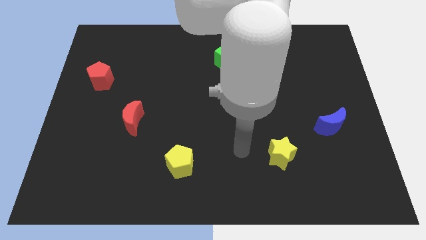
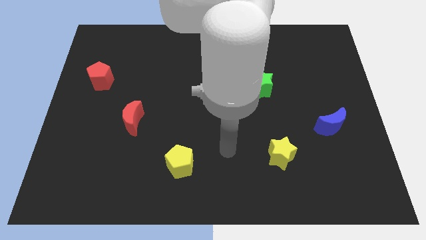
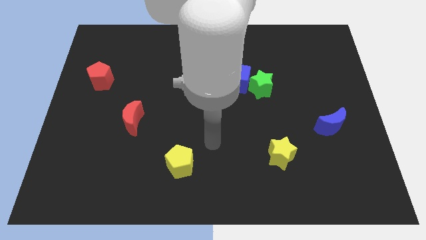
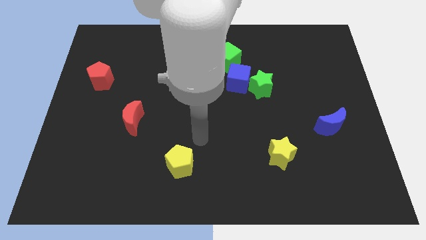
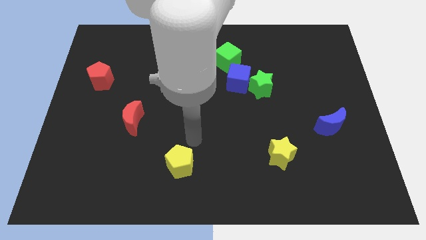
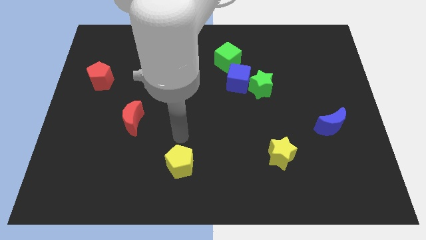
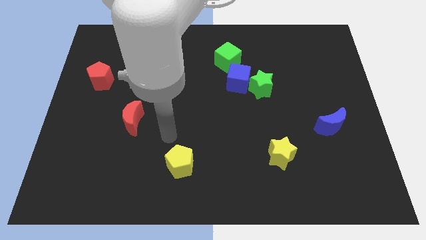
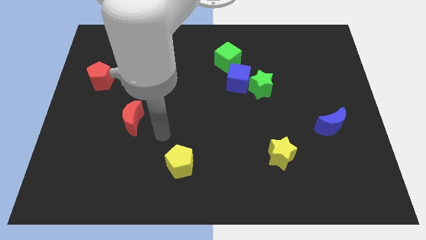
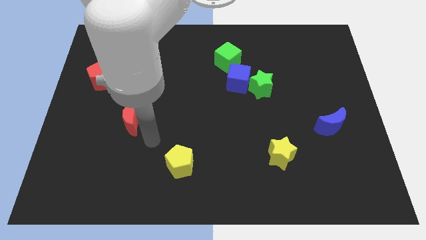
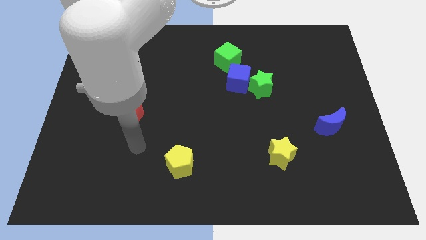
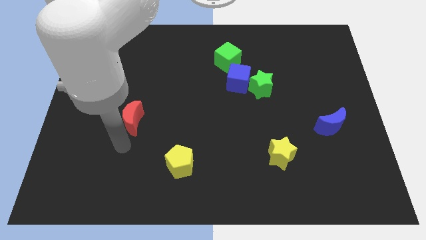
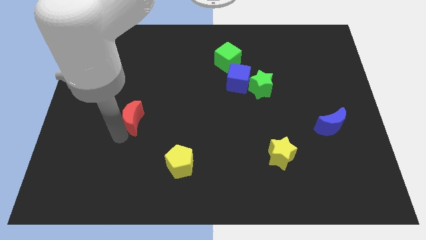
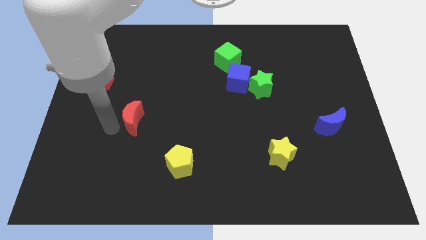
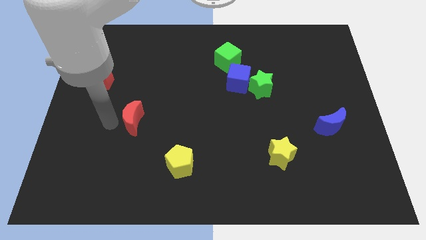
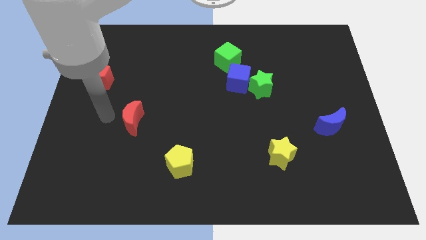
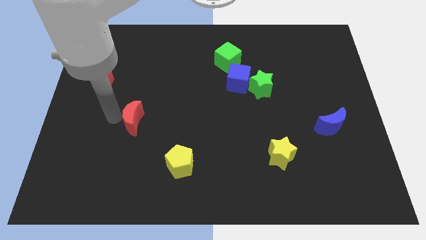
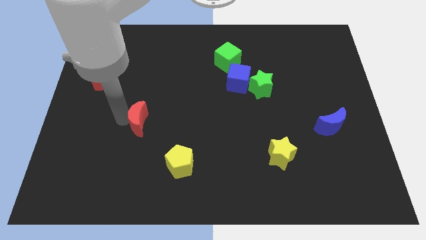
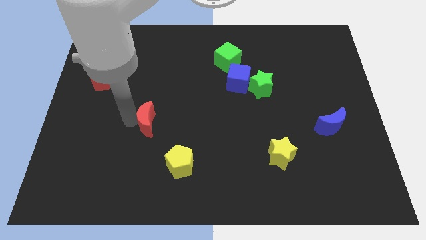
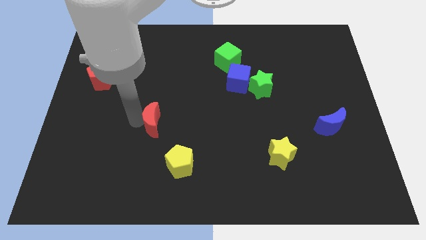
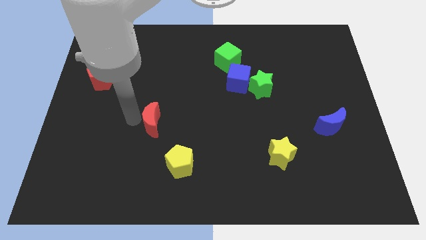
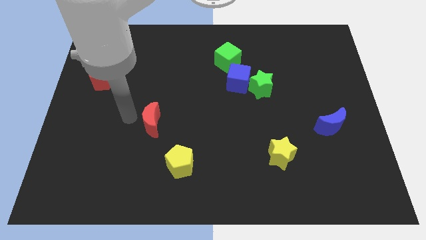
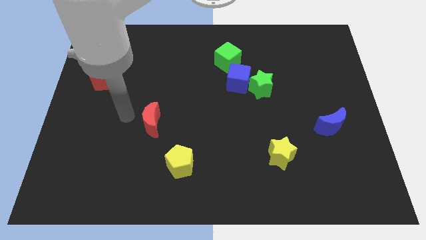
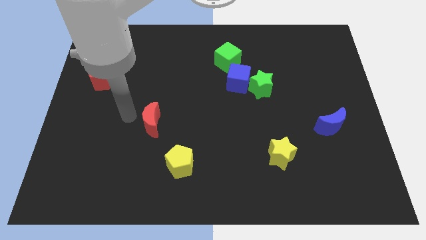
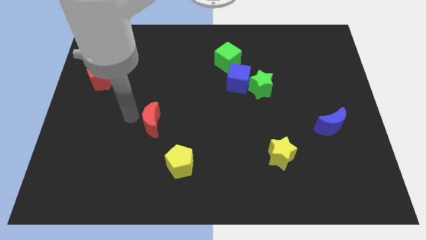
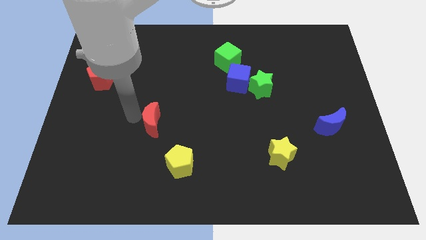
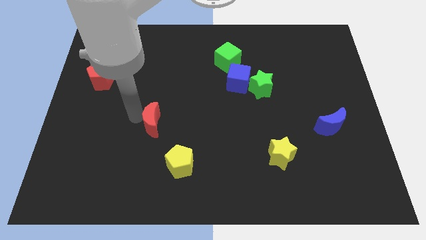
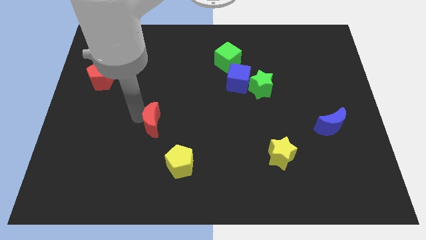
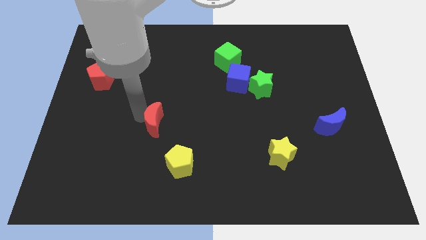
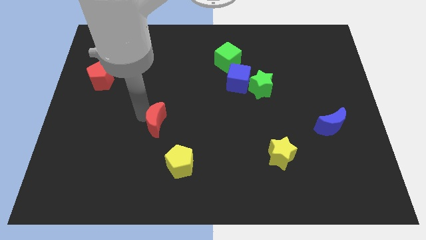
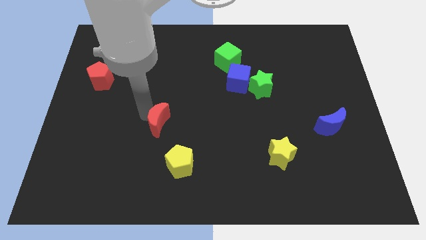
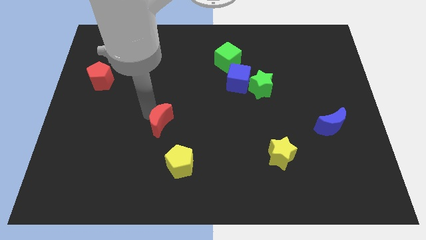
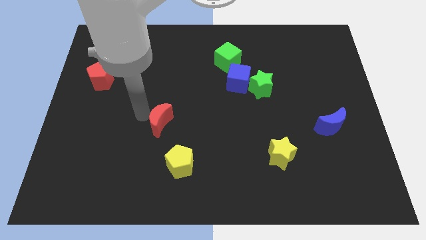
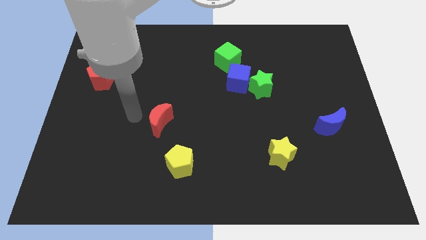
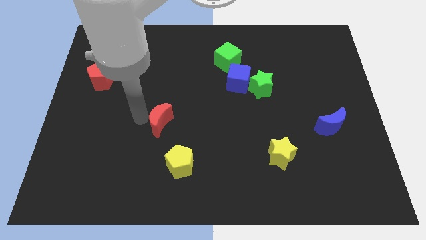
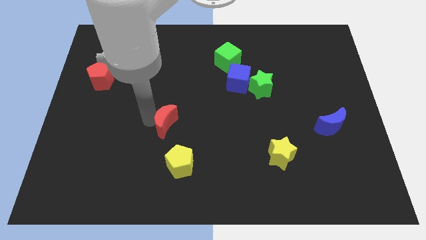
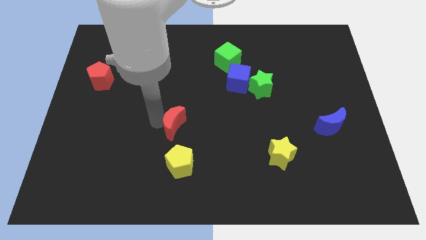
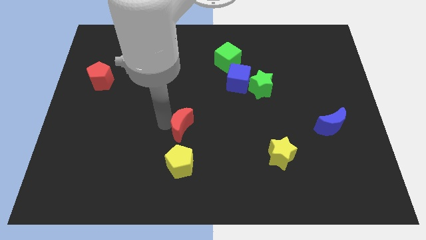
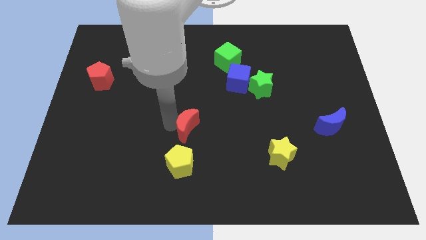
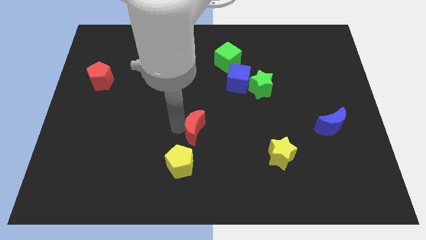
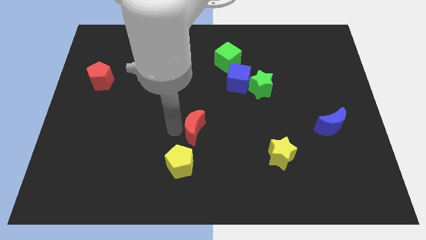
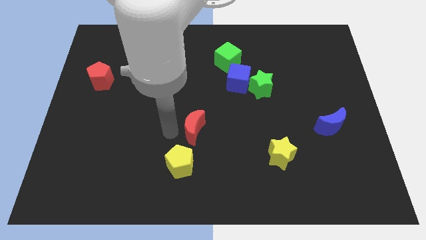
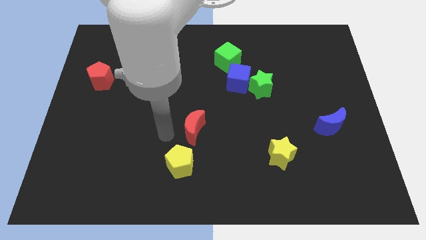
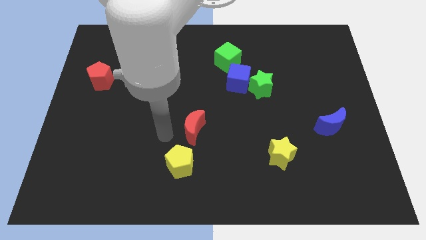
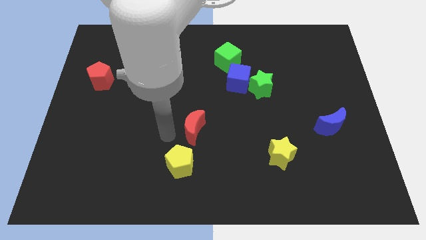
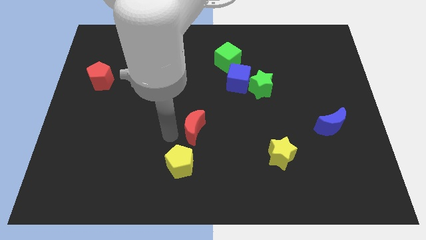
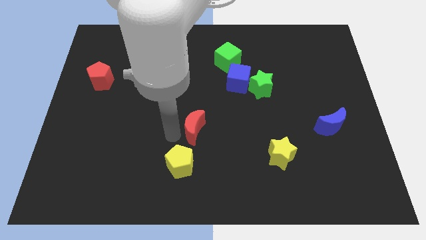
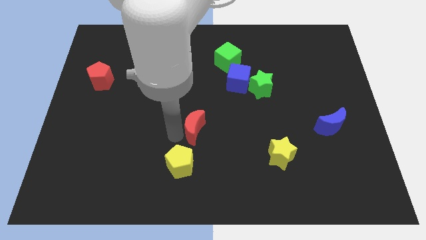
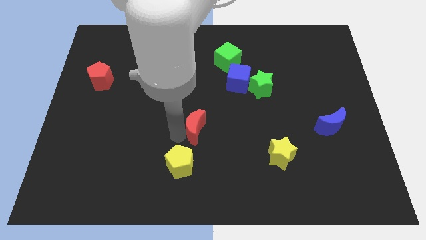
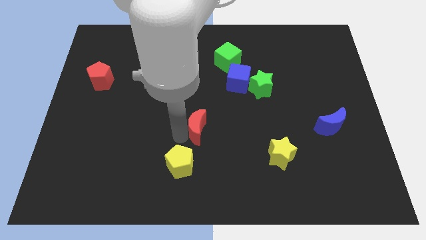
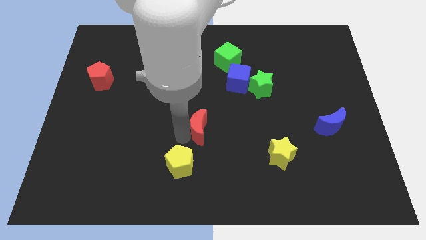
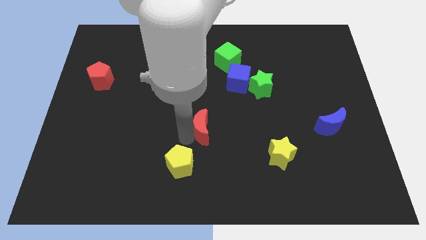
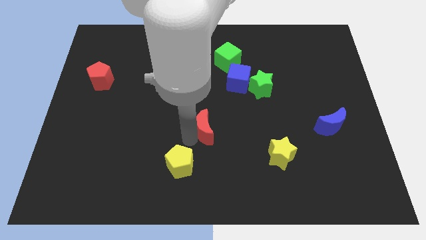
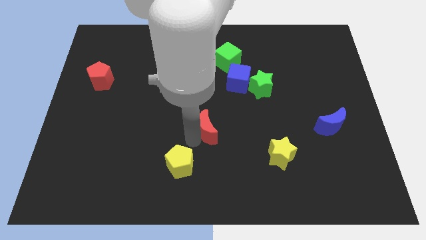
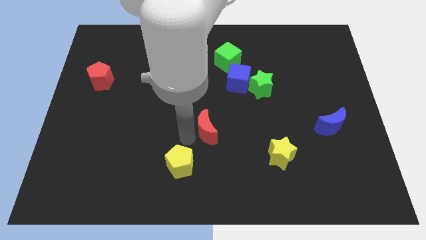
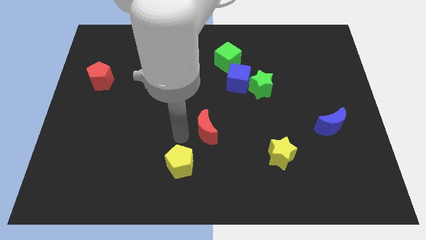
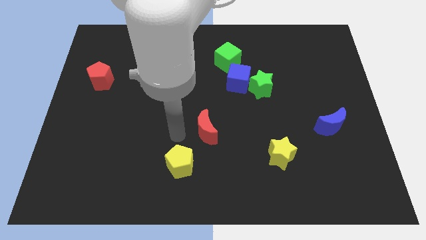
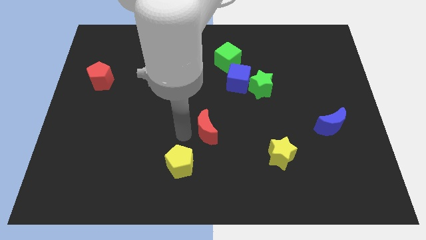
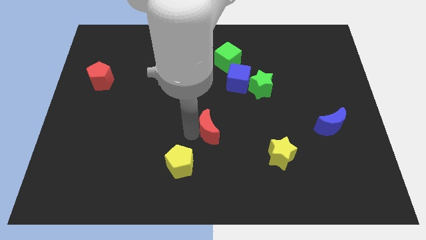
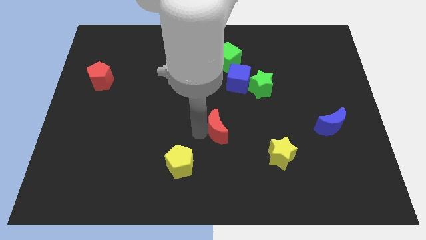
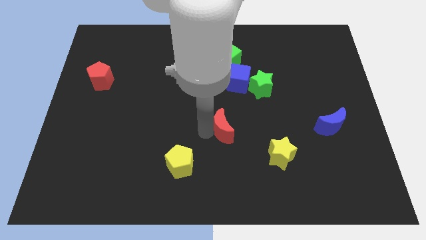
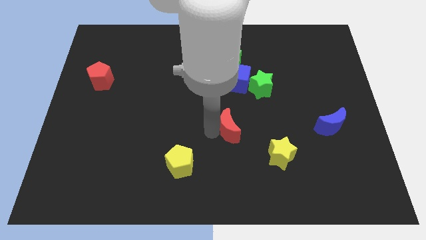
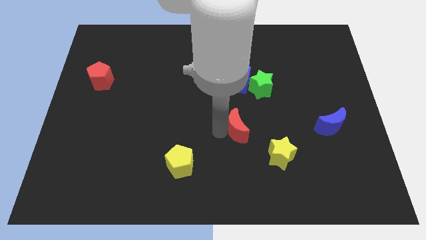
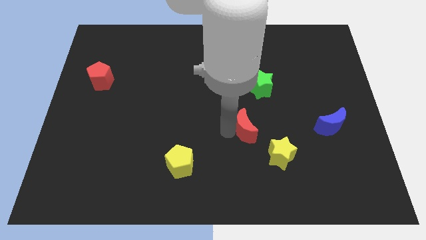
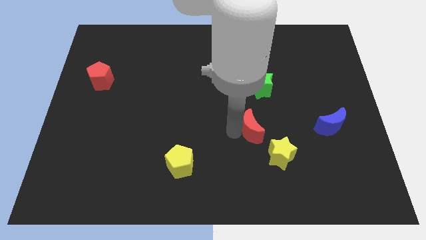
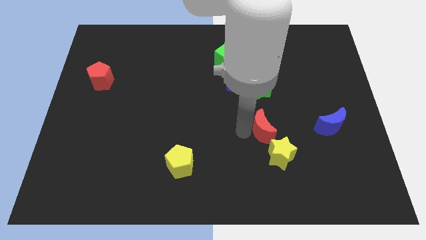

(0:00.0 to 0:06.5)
move the red moon to the left side of the blue moon
